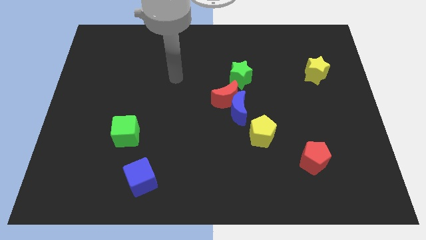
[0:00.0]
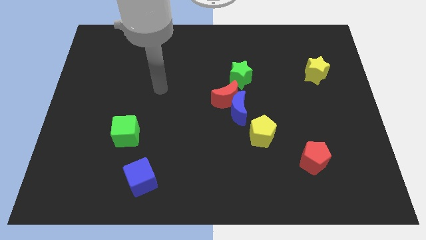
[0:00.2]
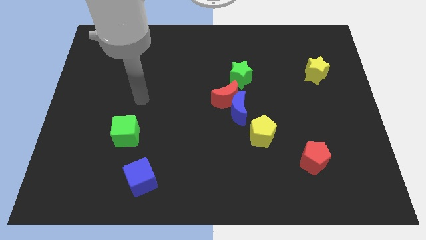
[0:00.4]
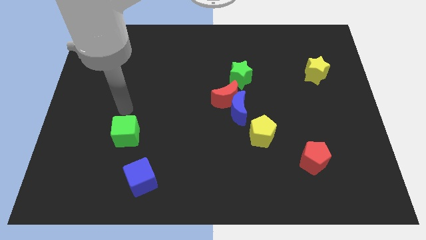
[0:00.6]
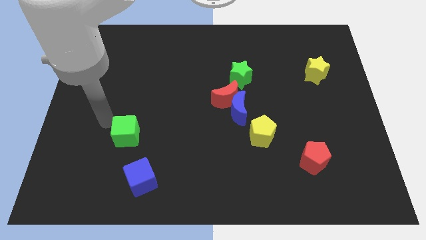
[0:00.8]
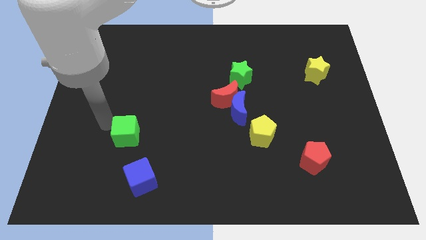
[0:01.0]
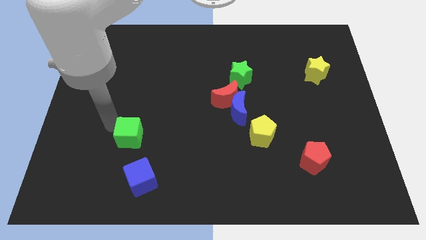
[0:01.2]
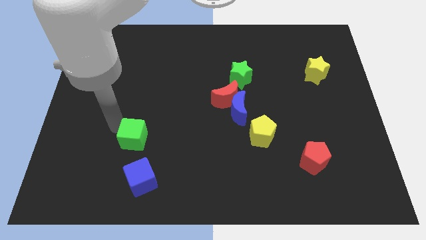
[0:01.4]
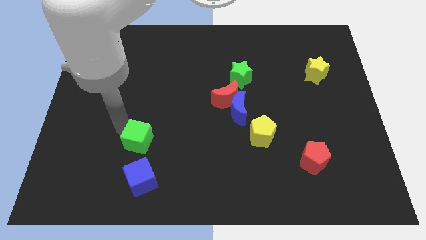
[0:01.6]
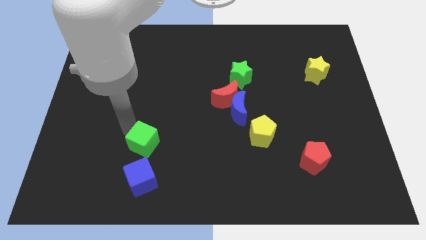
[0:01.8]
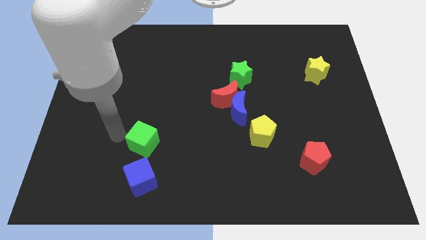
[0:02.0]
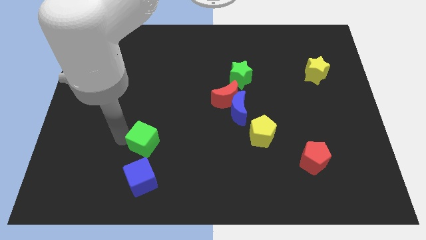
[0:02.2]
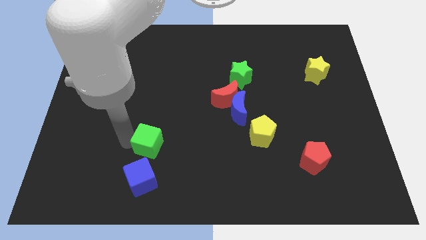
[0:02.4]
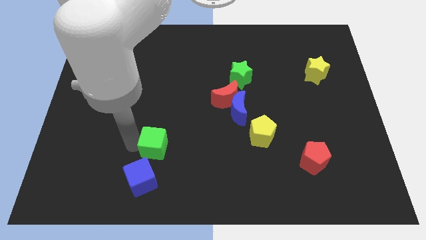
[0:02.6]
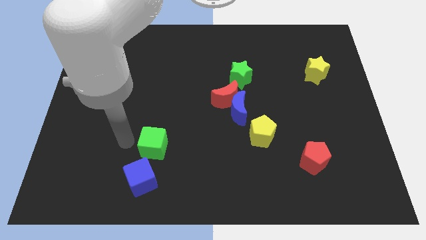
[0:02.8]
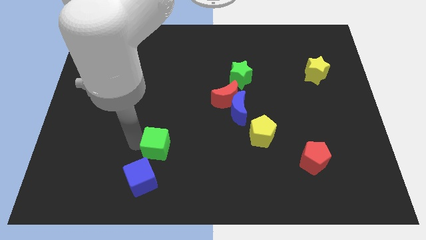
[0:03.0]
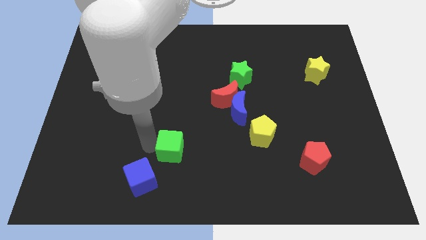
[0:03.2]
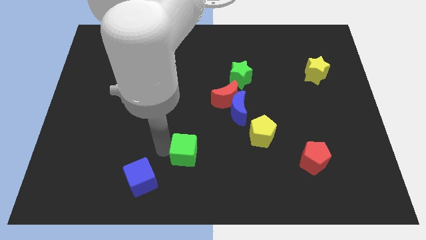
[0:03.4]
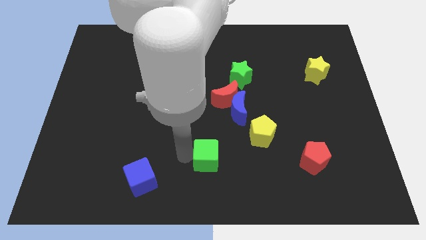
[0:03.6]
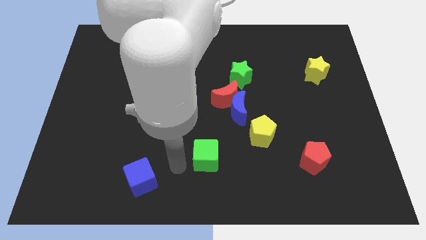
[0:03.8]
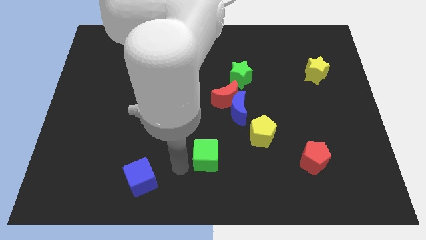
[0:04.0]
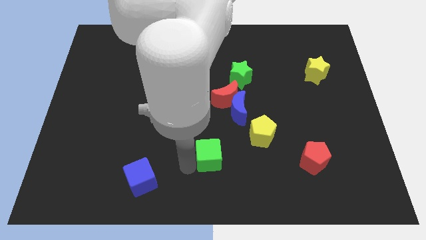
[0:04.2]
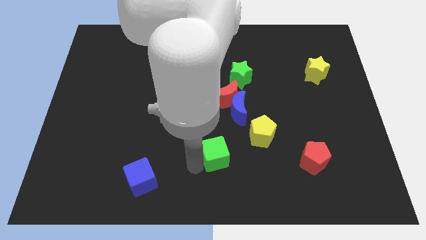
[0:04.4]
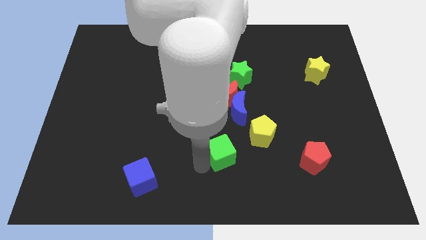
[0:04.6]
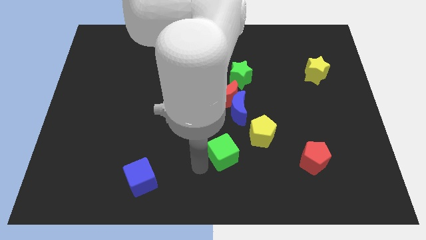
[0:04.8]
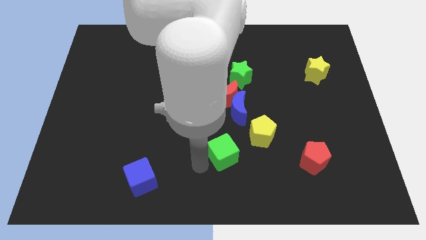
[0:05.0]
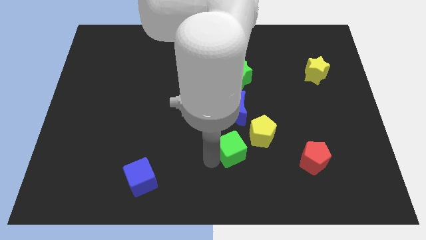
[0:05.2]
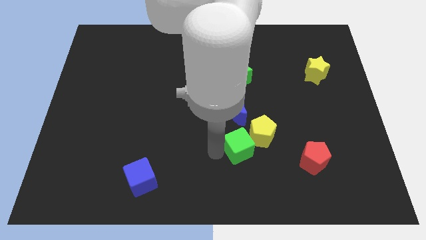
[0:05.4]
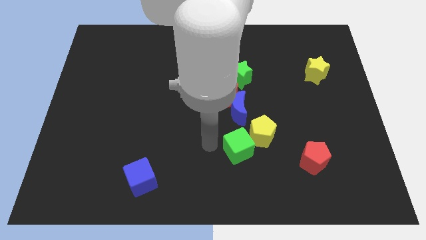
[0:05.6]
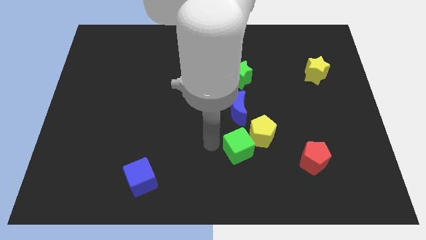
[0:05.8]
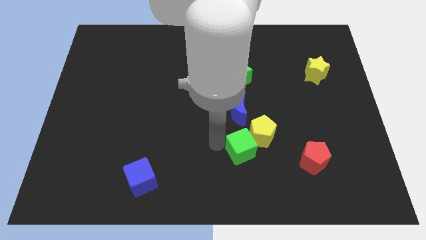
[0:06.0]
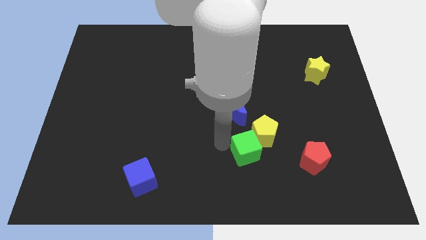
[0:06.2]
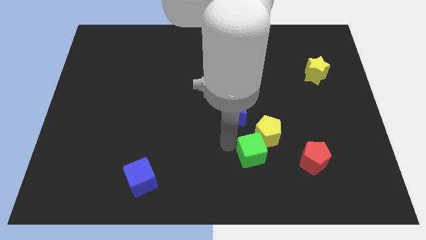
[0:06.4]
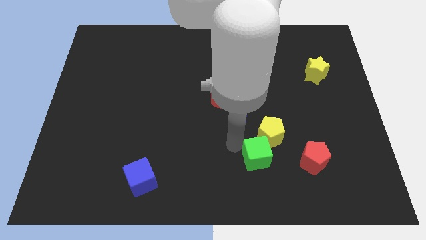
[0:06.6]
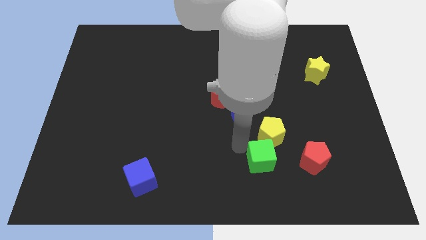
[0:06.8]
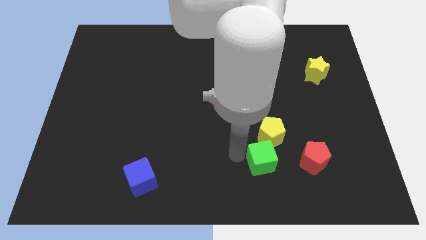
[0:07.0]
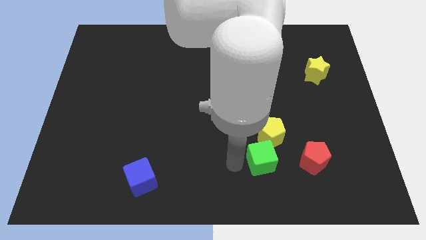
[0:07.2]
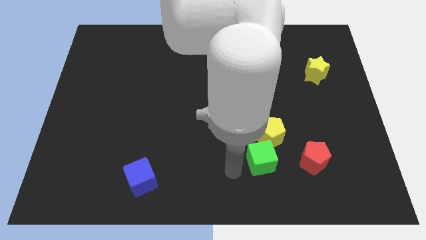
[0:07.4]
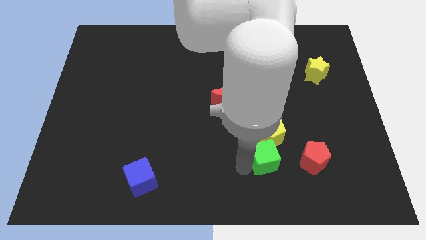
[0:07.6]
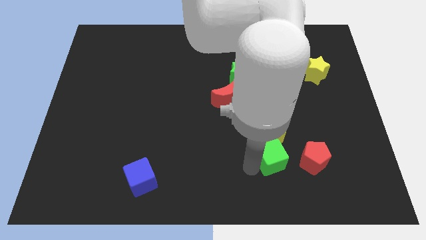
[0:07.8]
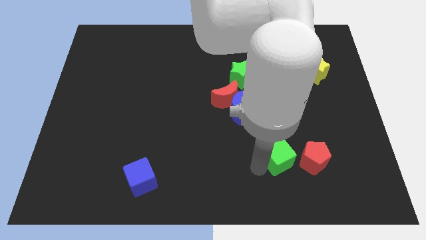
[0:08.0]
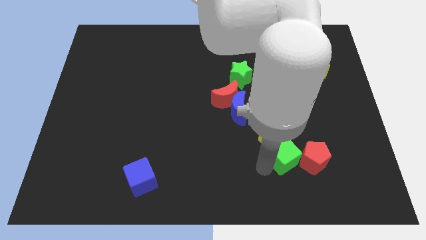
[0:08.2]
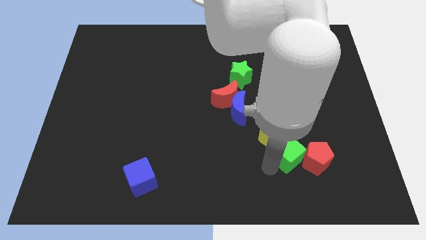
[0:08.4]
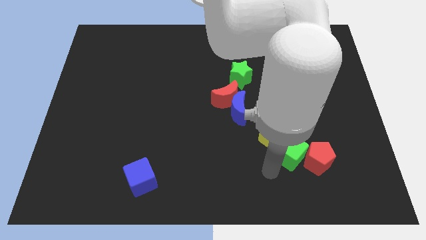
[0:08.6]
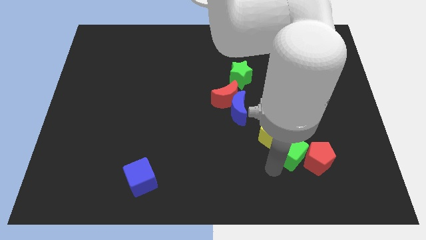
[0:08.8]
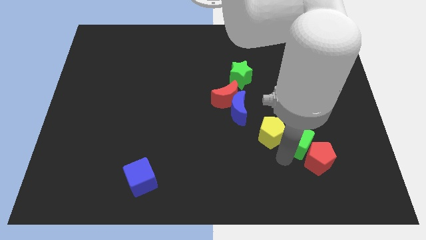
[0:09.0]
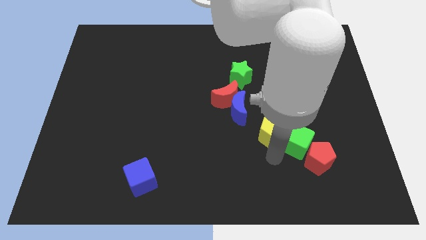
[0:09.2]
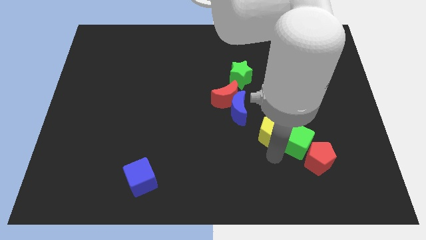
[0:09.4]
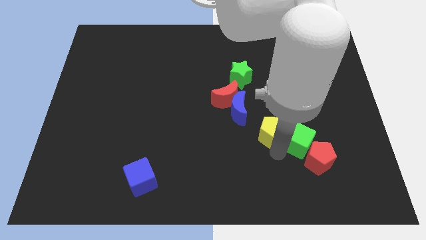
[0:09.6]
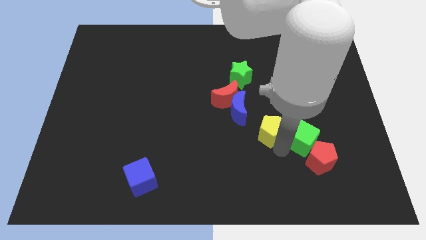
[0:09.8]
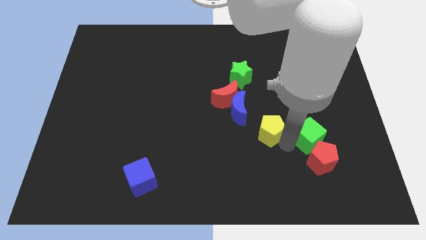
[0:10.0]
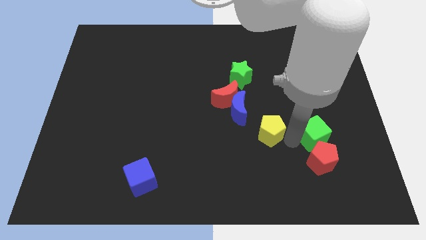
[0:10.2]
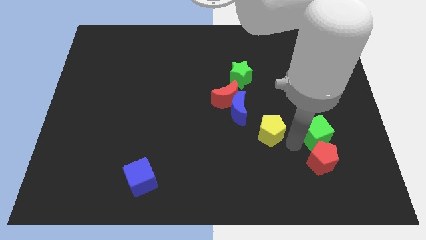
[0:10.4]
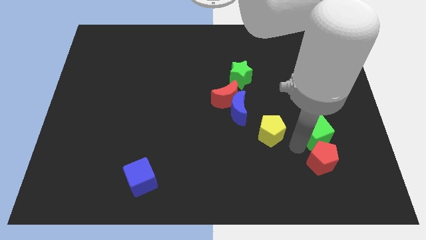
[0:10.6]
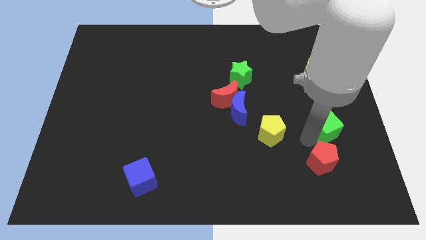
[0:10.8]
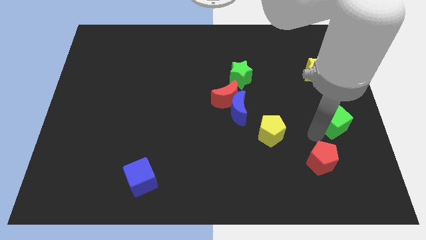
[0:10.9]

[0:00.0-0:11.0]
slide the green cube to the center right
